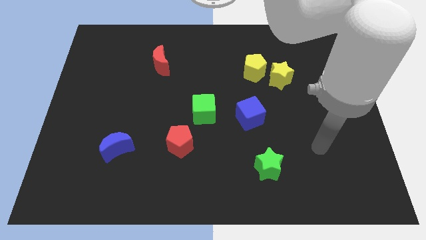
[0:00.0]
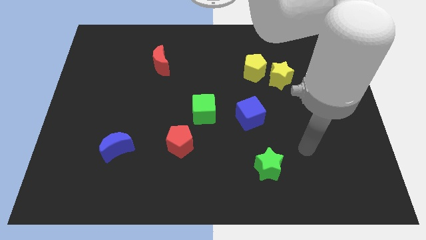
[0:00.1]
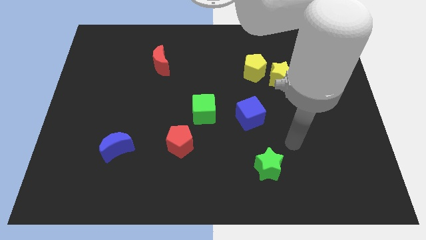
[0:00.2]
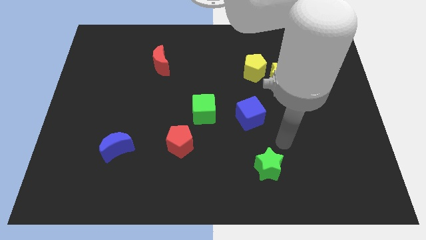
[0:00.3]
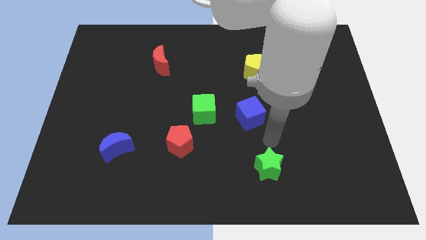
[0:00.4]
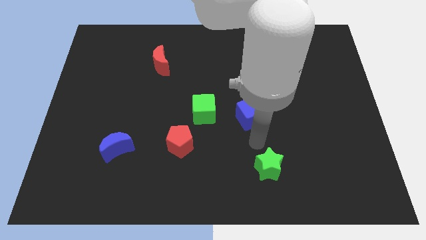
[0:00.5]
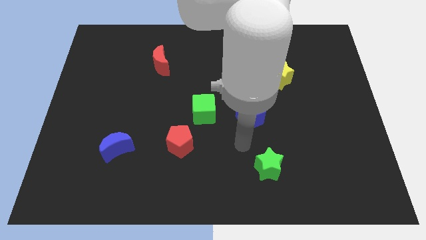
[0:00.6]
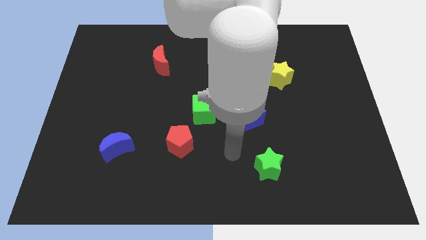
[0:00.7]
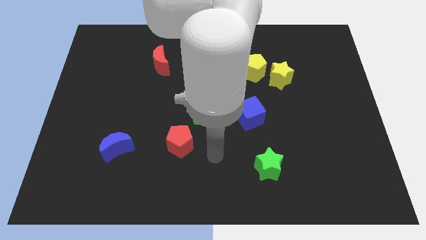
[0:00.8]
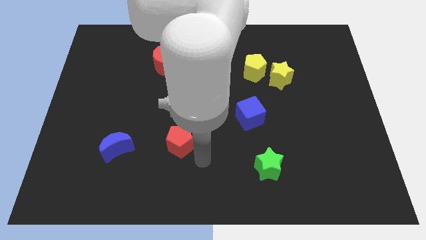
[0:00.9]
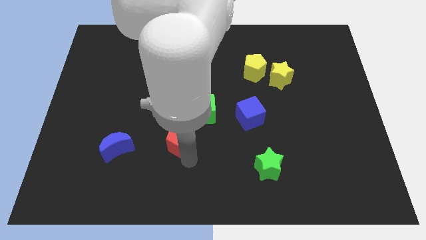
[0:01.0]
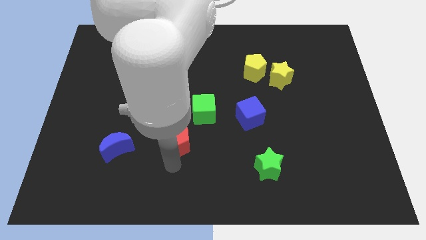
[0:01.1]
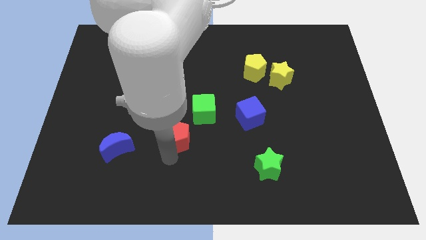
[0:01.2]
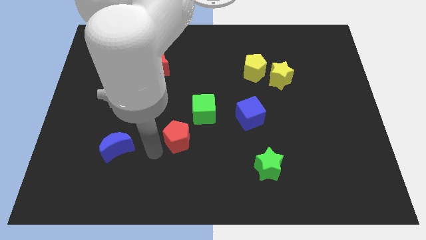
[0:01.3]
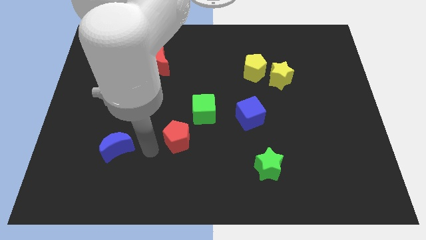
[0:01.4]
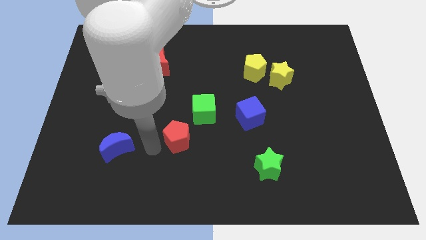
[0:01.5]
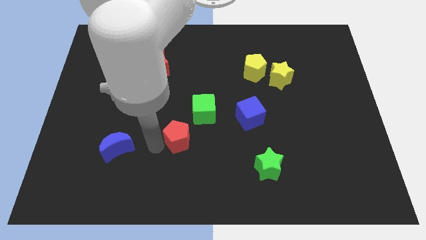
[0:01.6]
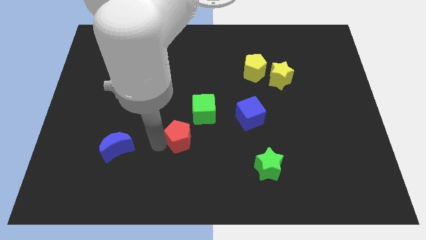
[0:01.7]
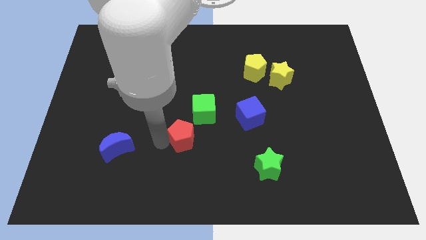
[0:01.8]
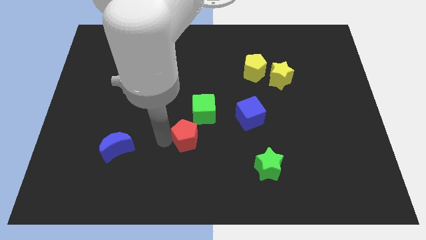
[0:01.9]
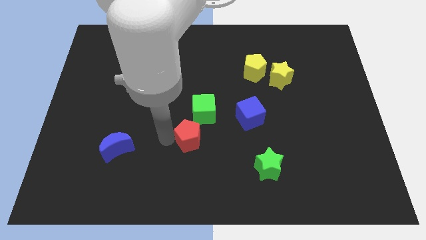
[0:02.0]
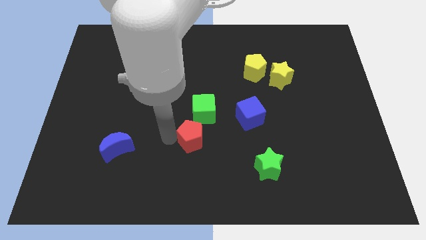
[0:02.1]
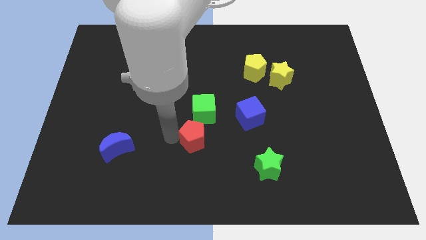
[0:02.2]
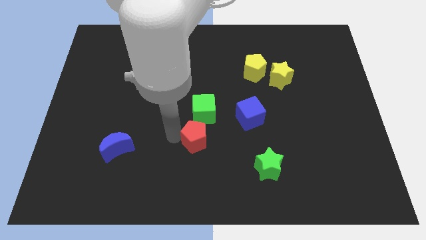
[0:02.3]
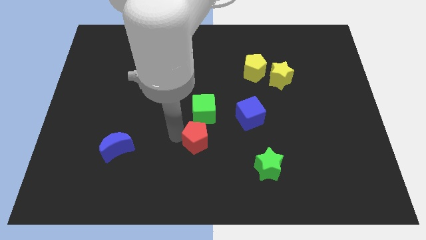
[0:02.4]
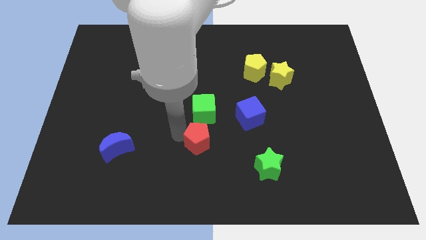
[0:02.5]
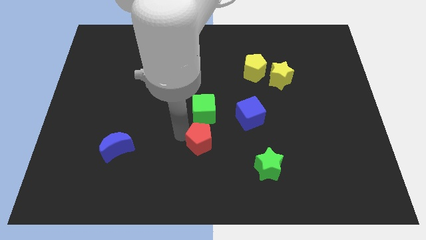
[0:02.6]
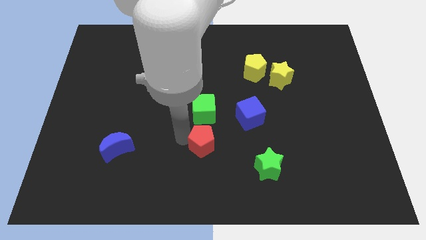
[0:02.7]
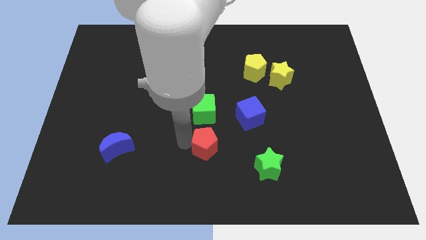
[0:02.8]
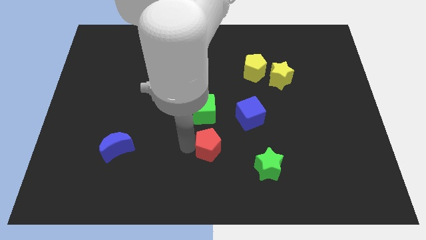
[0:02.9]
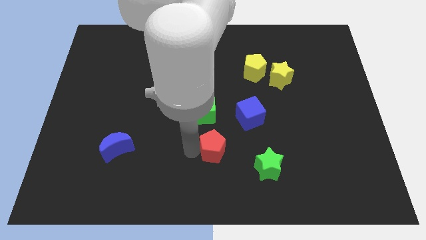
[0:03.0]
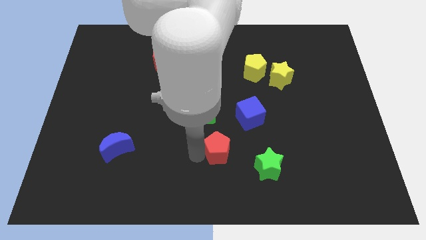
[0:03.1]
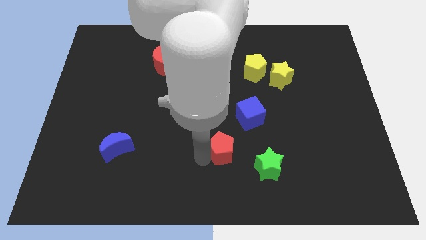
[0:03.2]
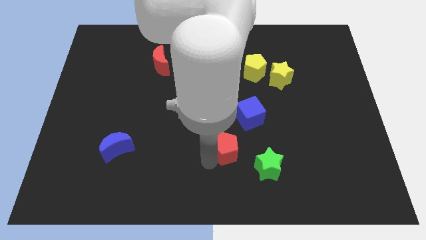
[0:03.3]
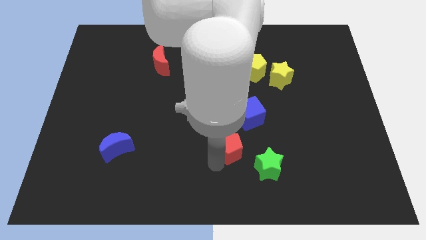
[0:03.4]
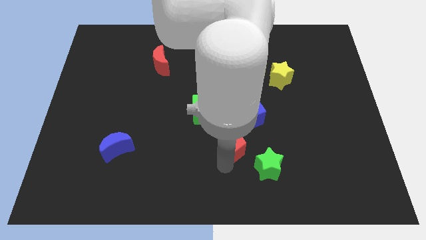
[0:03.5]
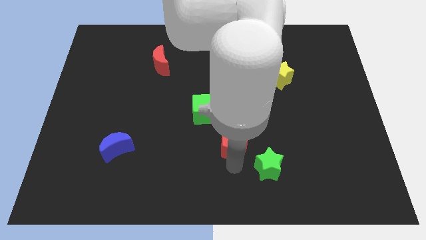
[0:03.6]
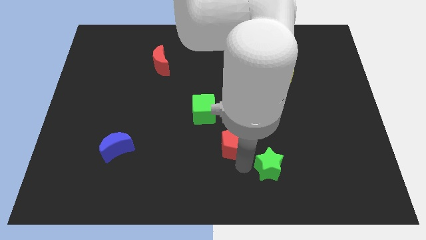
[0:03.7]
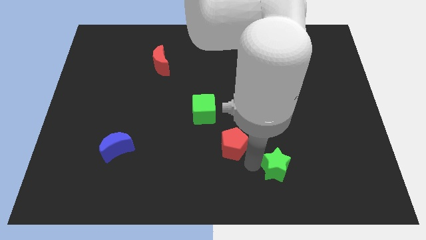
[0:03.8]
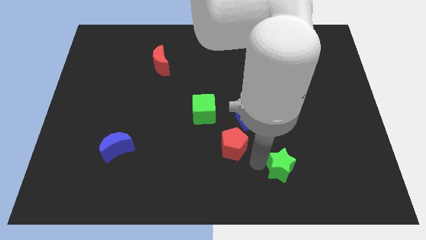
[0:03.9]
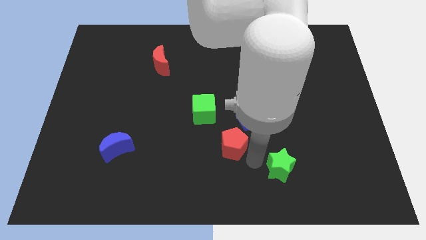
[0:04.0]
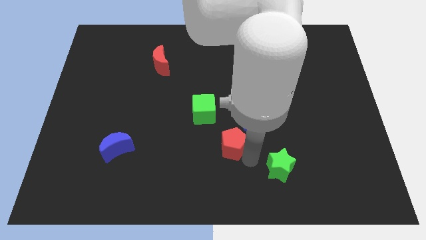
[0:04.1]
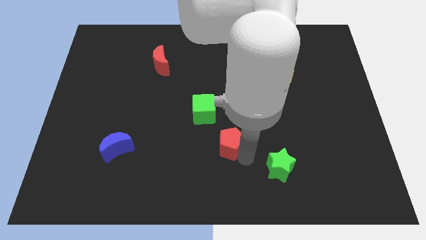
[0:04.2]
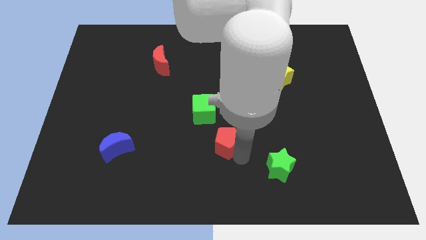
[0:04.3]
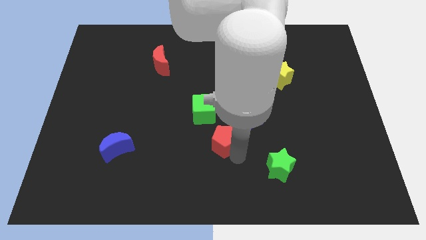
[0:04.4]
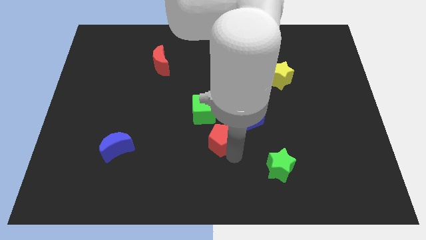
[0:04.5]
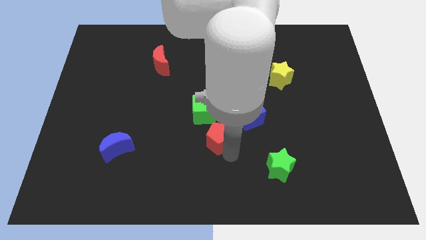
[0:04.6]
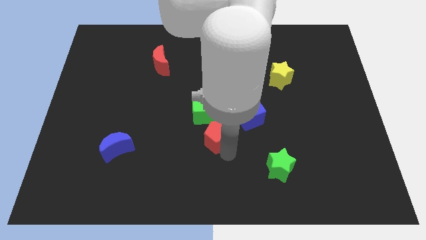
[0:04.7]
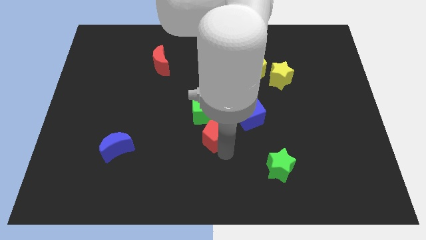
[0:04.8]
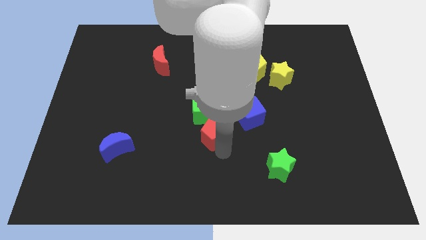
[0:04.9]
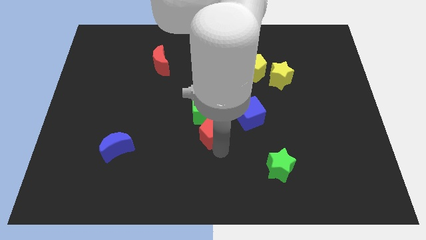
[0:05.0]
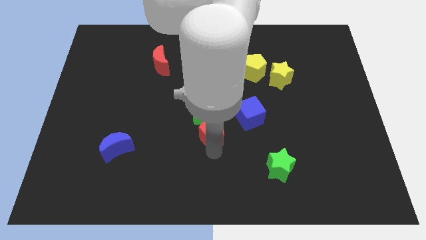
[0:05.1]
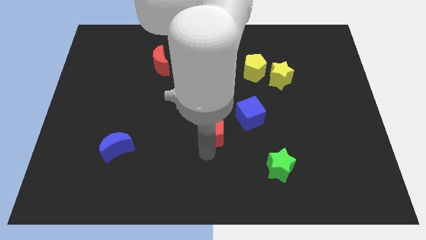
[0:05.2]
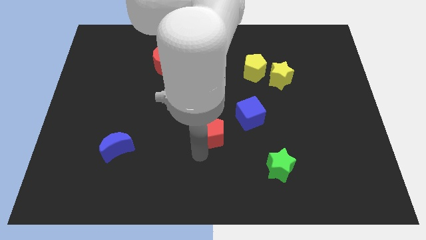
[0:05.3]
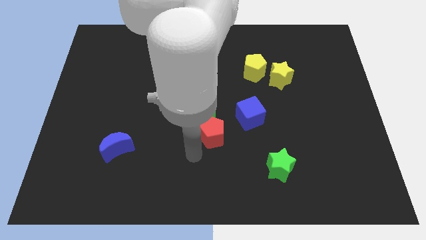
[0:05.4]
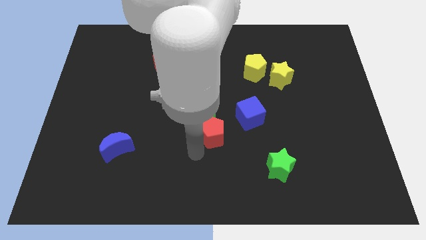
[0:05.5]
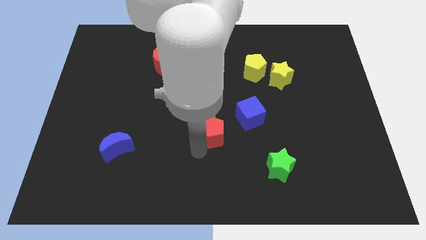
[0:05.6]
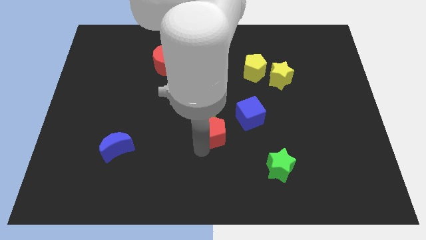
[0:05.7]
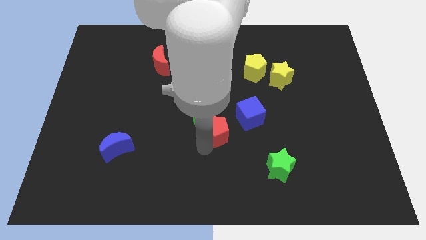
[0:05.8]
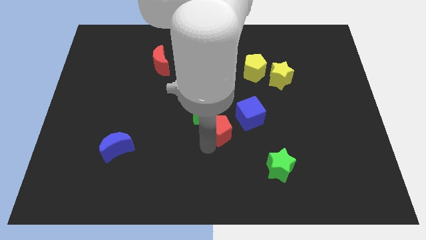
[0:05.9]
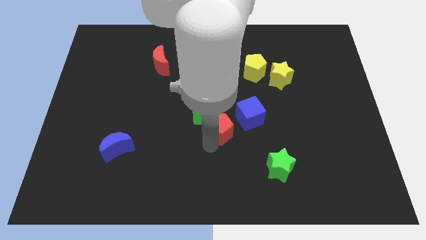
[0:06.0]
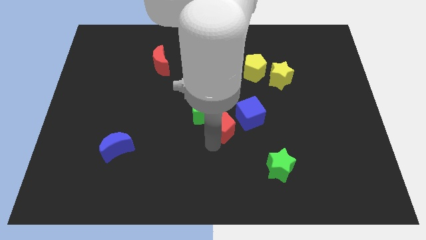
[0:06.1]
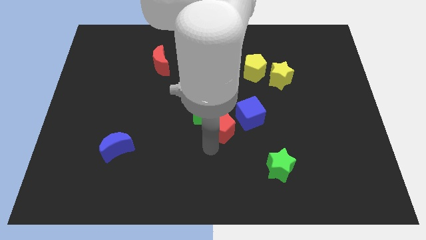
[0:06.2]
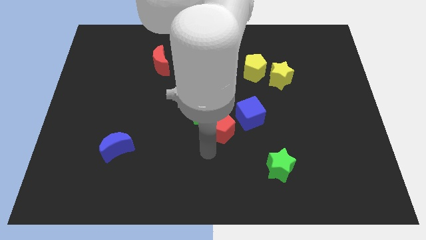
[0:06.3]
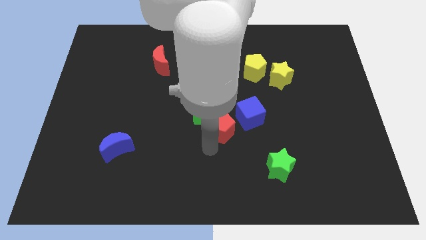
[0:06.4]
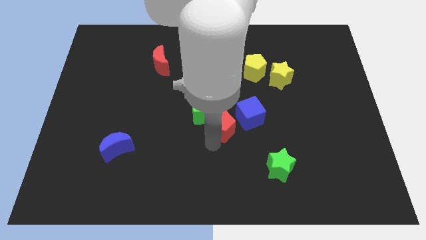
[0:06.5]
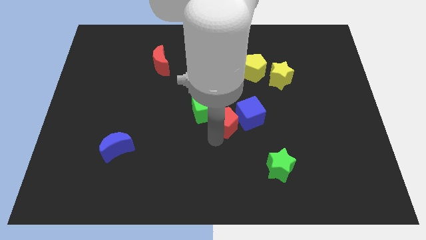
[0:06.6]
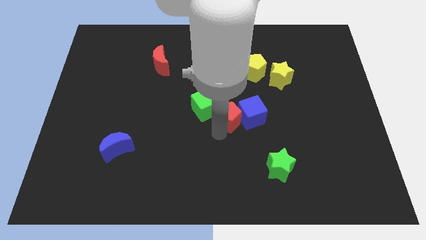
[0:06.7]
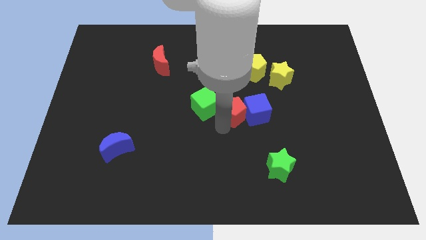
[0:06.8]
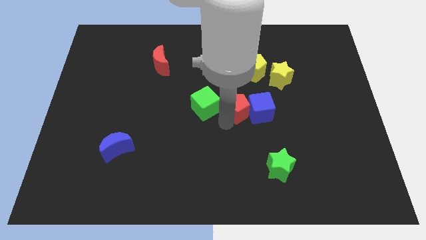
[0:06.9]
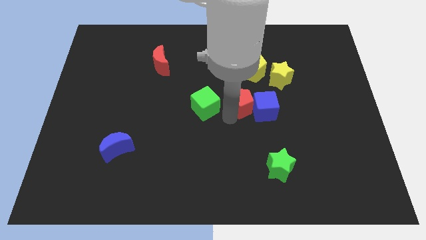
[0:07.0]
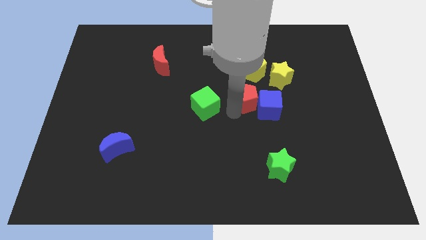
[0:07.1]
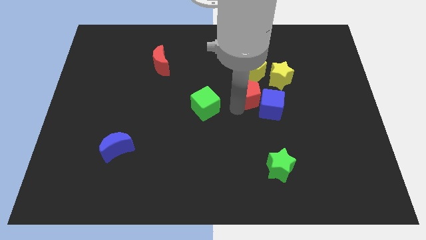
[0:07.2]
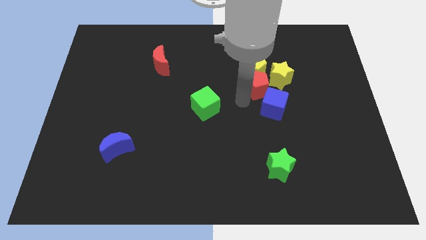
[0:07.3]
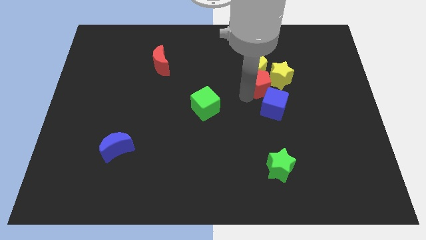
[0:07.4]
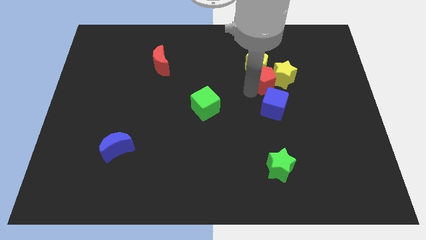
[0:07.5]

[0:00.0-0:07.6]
put the red pentagon close to the yellow star
